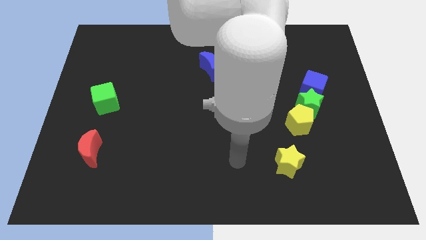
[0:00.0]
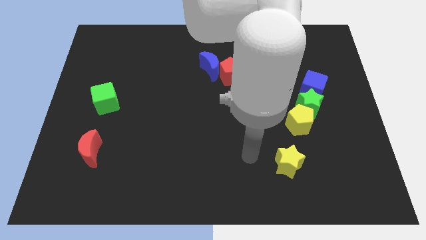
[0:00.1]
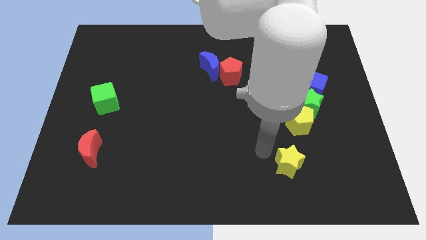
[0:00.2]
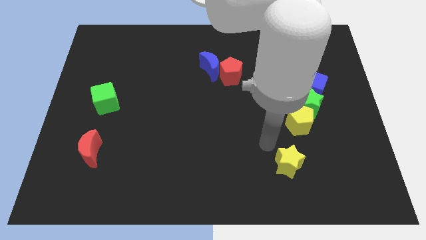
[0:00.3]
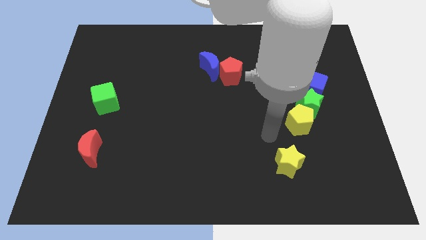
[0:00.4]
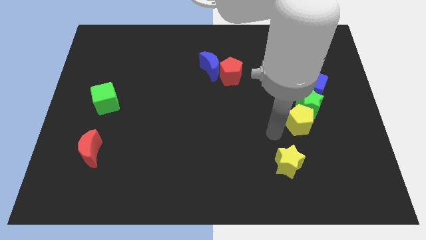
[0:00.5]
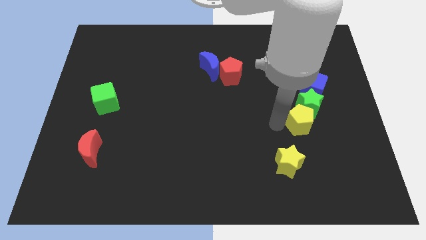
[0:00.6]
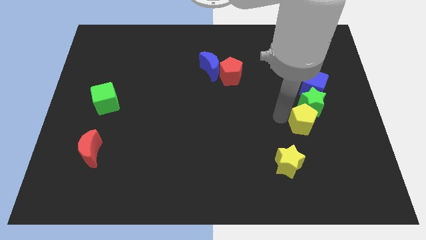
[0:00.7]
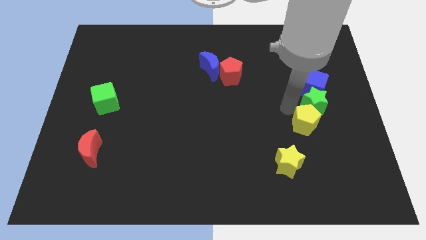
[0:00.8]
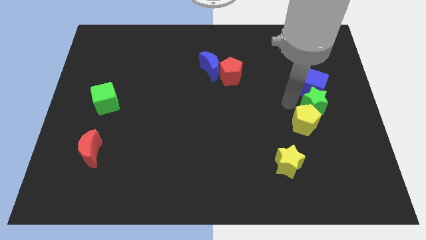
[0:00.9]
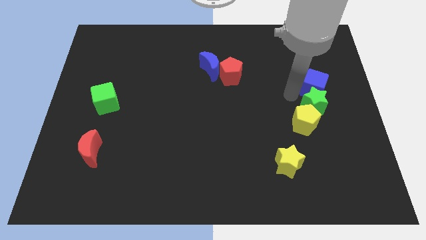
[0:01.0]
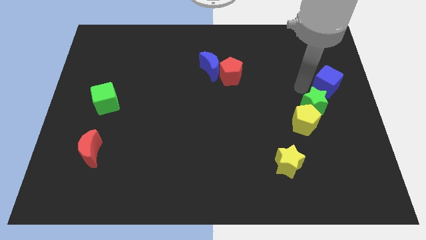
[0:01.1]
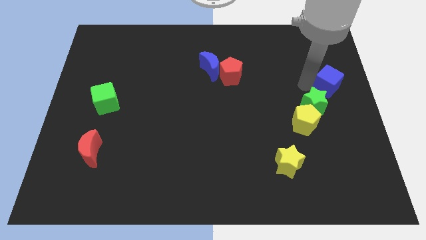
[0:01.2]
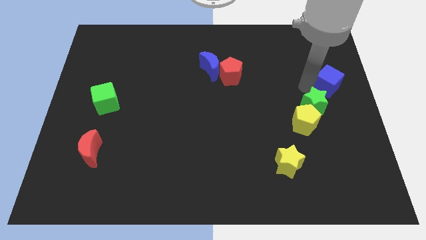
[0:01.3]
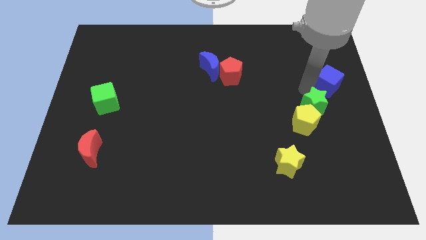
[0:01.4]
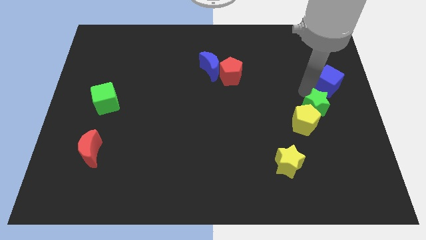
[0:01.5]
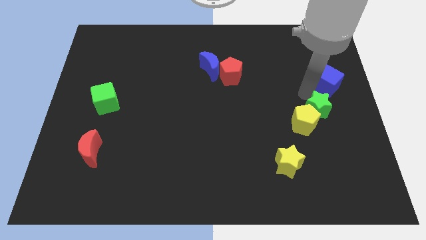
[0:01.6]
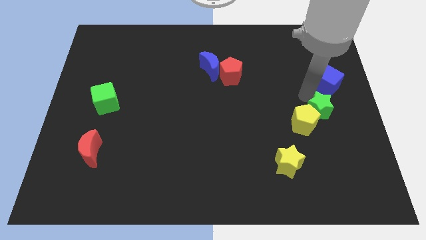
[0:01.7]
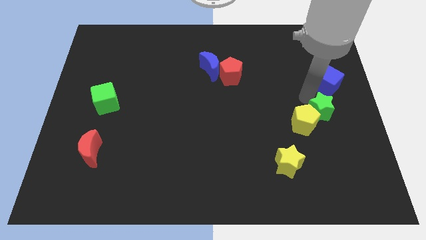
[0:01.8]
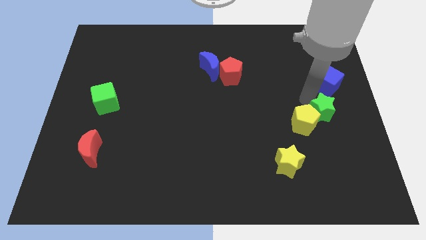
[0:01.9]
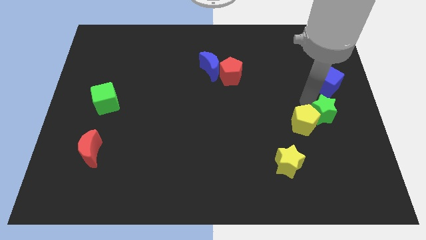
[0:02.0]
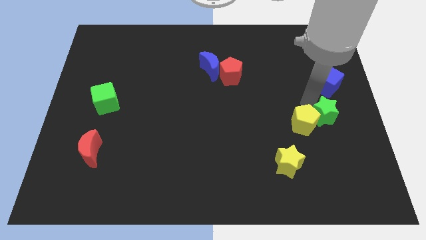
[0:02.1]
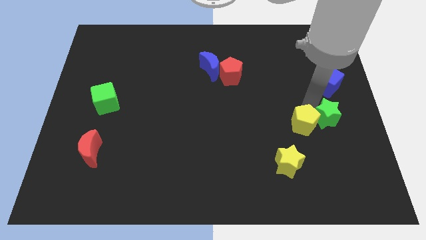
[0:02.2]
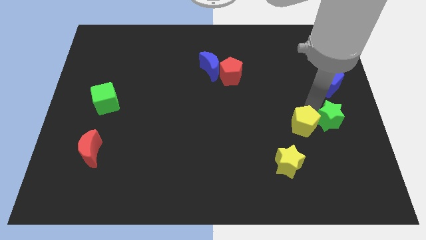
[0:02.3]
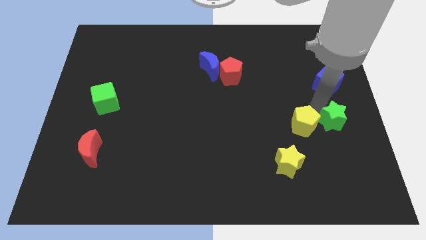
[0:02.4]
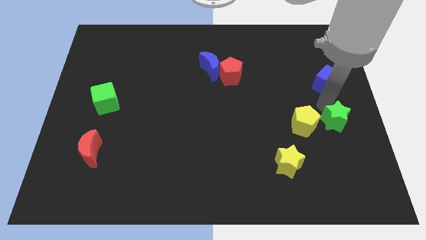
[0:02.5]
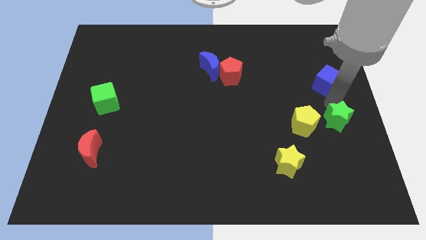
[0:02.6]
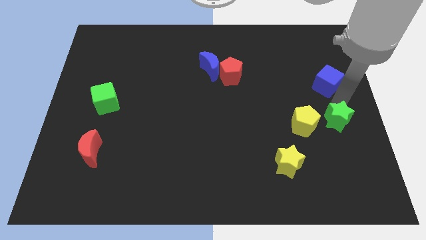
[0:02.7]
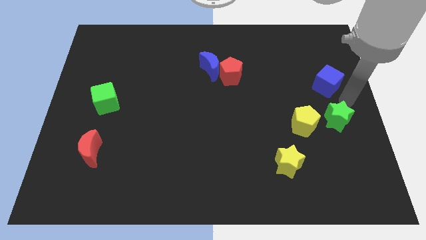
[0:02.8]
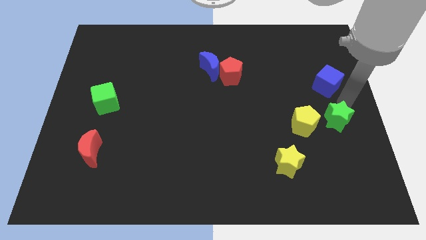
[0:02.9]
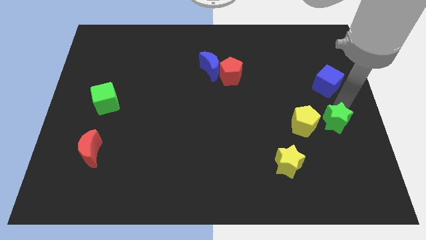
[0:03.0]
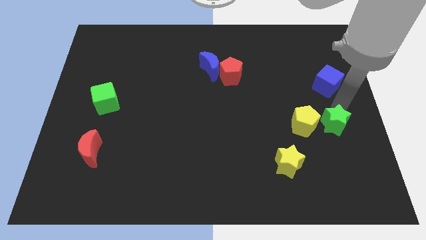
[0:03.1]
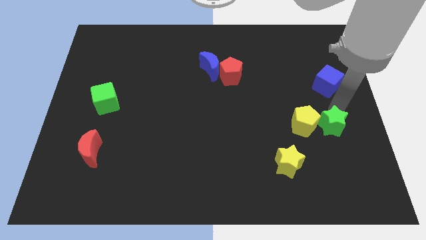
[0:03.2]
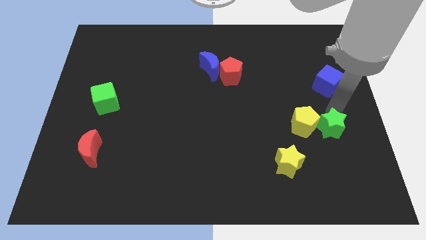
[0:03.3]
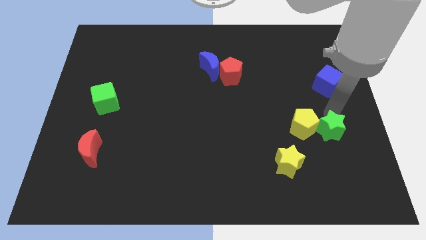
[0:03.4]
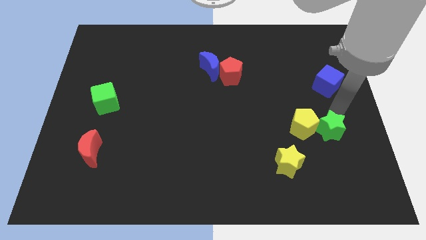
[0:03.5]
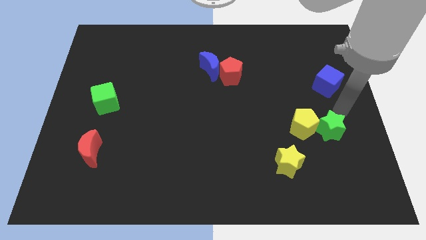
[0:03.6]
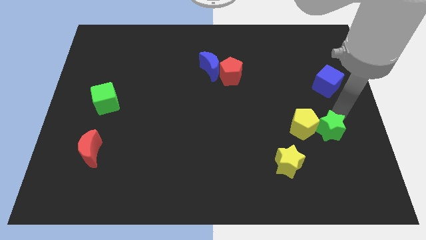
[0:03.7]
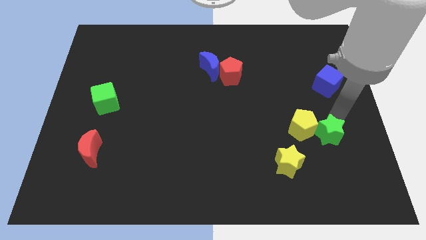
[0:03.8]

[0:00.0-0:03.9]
move the green star downwards a little

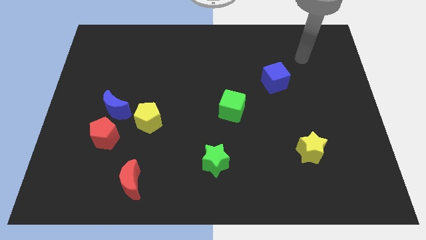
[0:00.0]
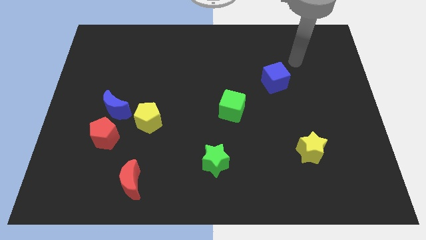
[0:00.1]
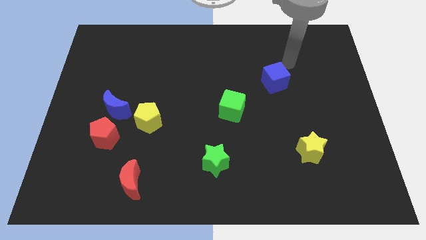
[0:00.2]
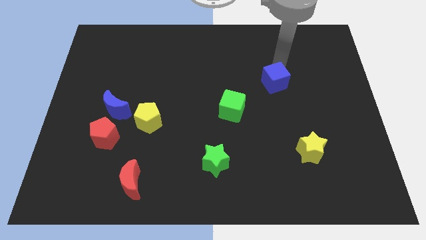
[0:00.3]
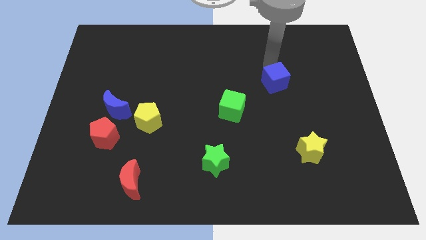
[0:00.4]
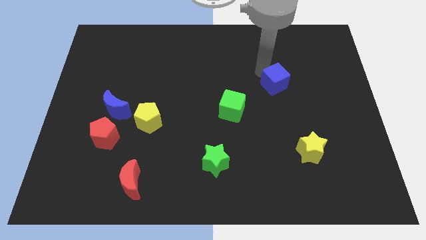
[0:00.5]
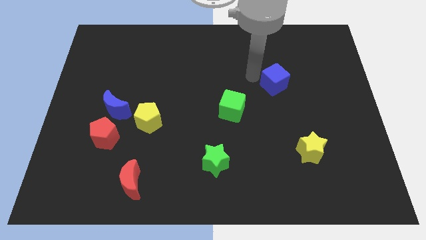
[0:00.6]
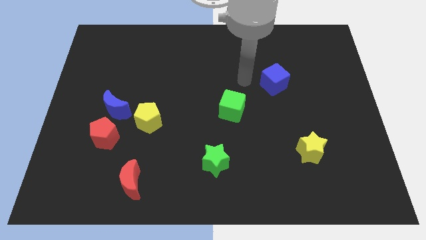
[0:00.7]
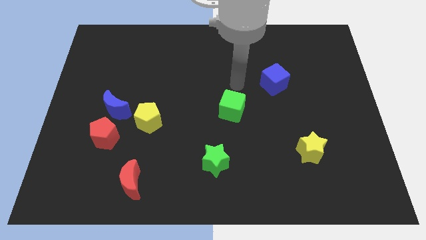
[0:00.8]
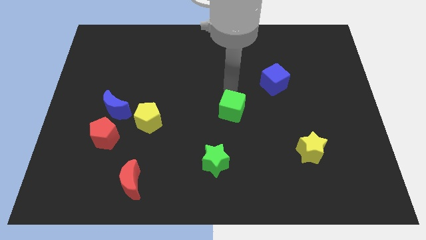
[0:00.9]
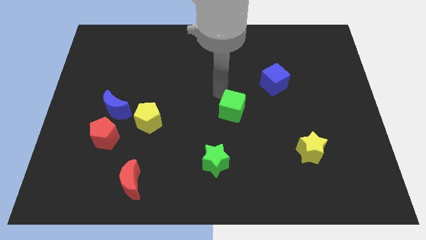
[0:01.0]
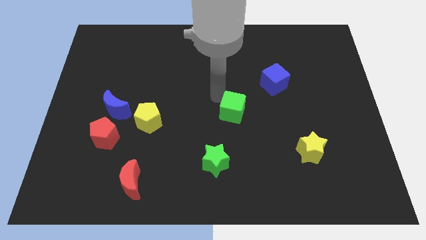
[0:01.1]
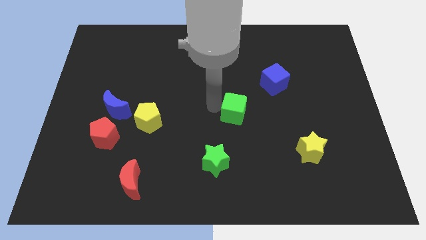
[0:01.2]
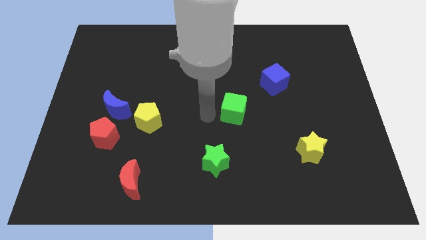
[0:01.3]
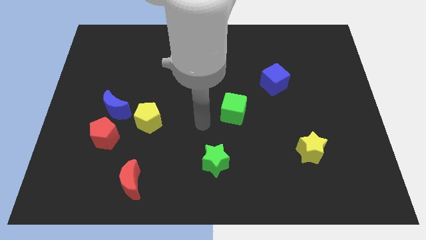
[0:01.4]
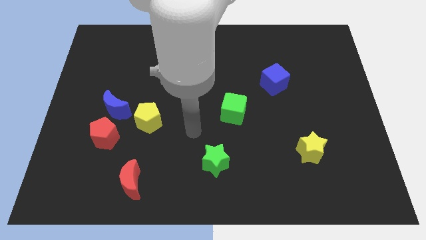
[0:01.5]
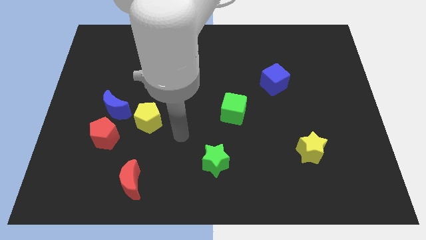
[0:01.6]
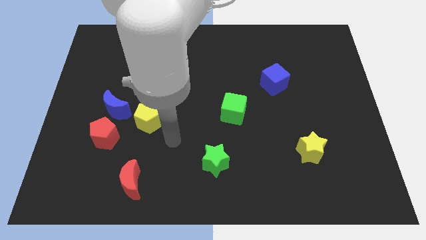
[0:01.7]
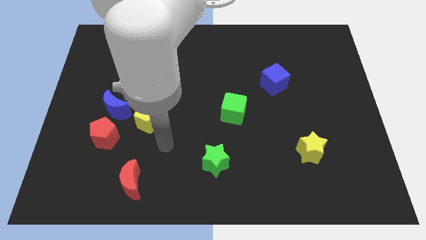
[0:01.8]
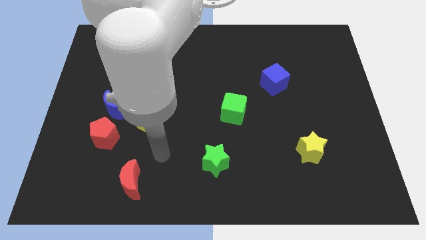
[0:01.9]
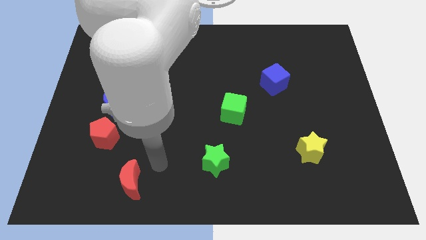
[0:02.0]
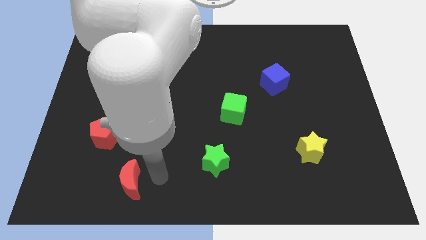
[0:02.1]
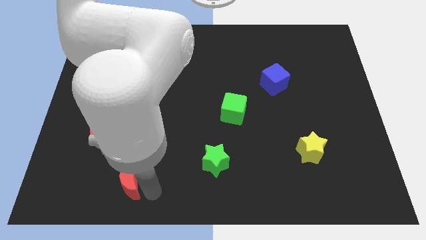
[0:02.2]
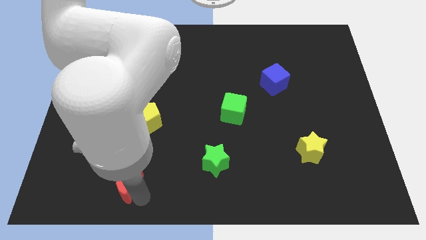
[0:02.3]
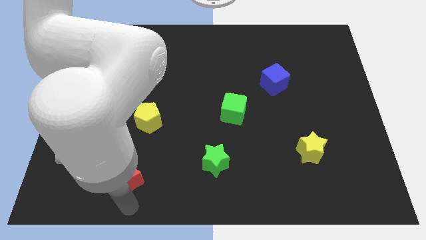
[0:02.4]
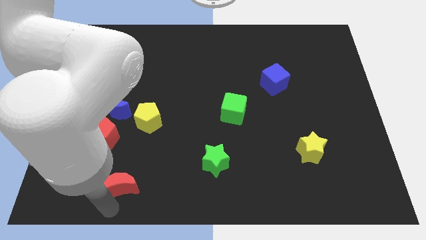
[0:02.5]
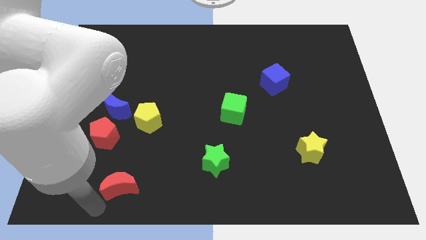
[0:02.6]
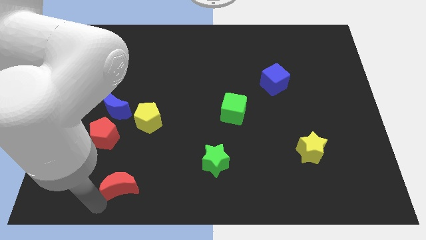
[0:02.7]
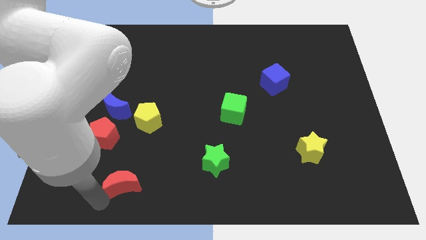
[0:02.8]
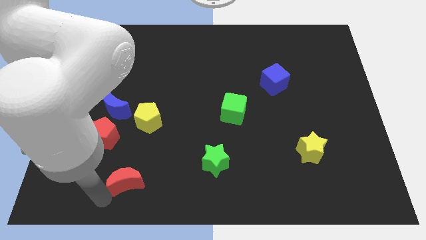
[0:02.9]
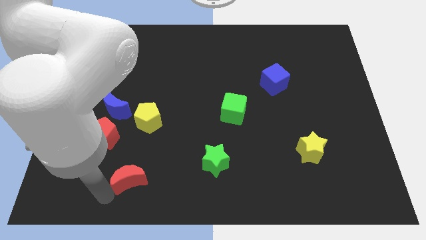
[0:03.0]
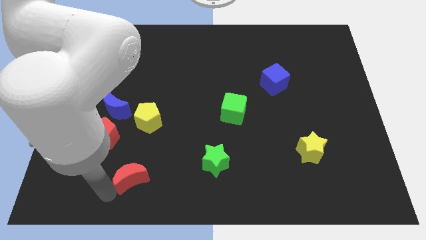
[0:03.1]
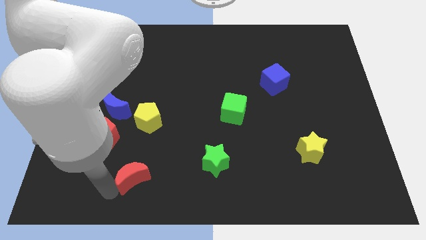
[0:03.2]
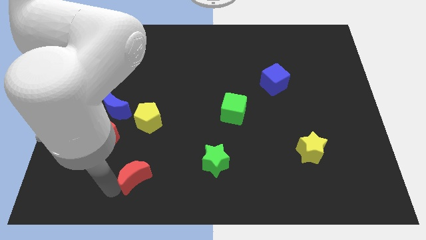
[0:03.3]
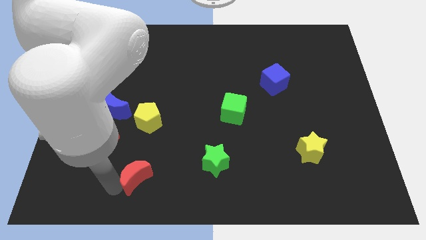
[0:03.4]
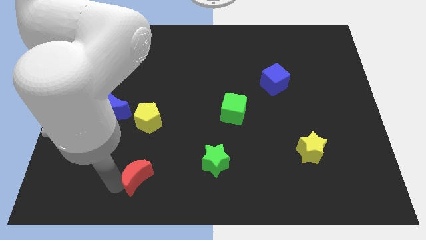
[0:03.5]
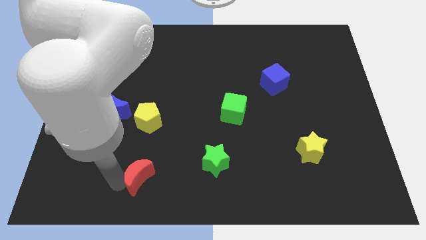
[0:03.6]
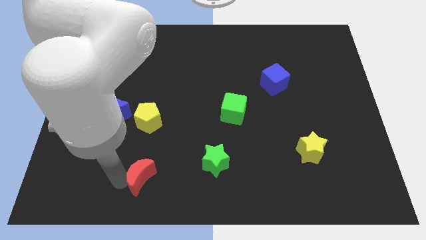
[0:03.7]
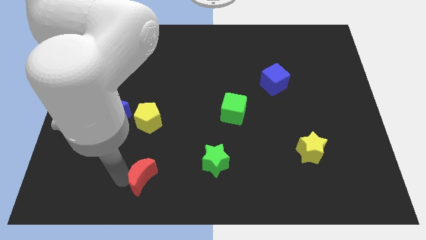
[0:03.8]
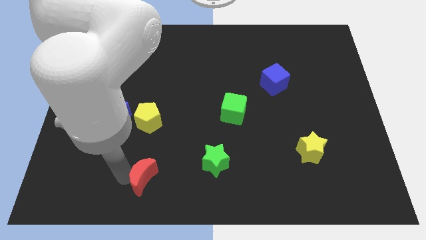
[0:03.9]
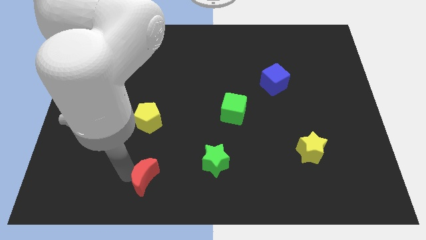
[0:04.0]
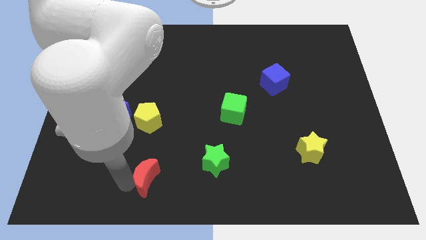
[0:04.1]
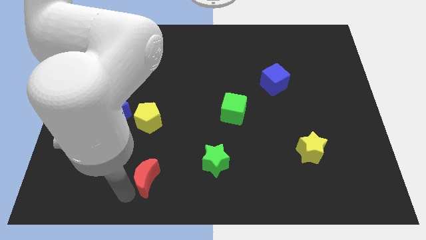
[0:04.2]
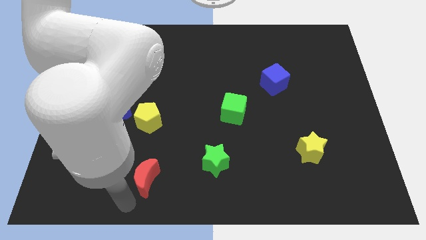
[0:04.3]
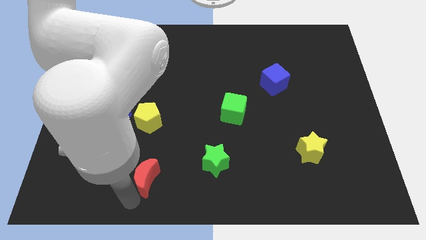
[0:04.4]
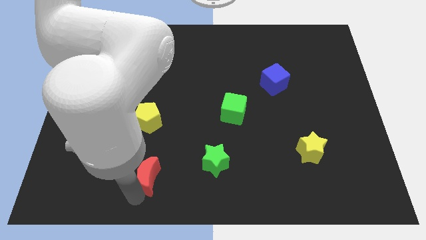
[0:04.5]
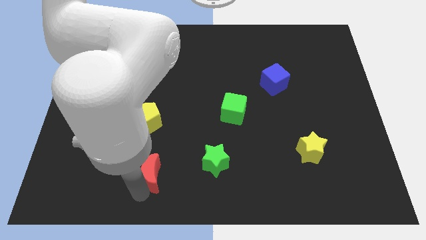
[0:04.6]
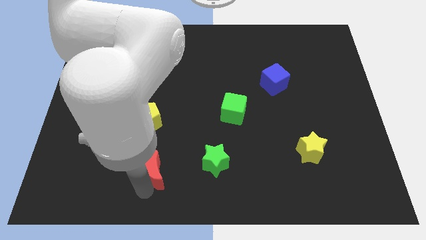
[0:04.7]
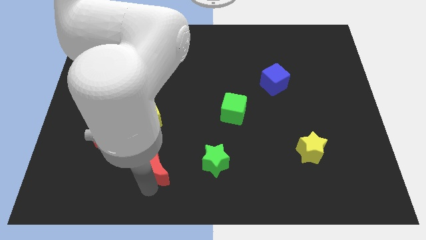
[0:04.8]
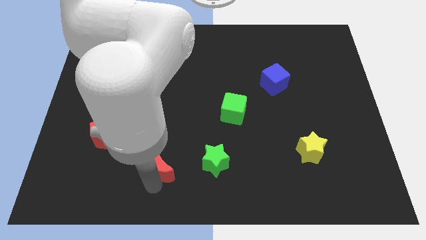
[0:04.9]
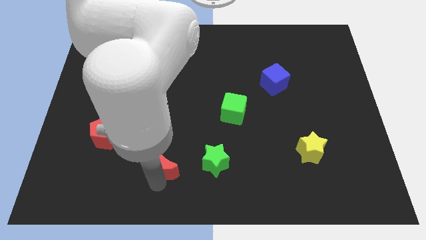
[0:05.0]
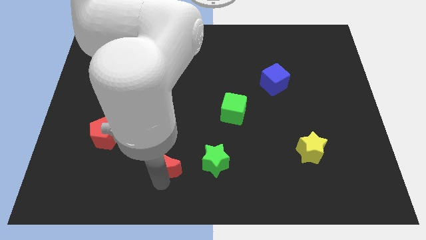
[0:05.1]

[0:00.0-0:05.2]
slightly move the red moon up and right
